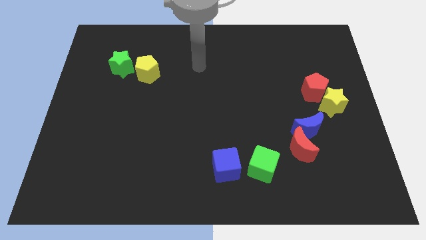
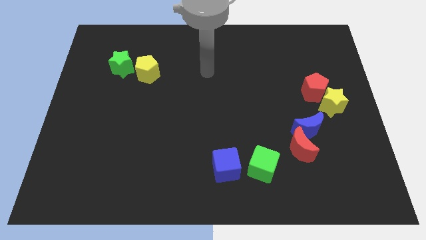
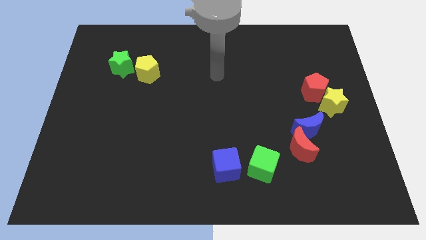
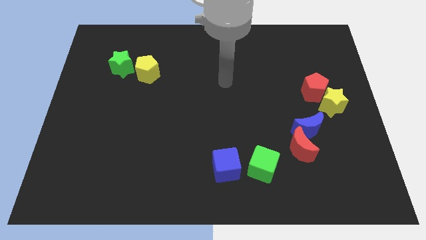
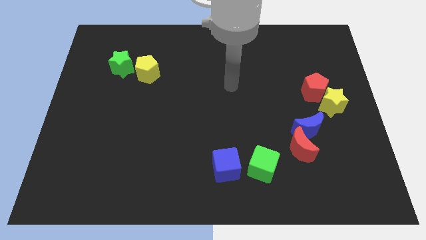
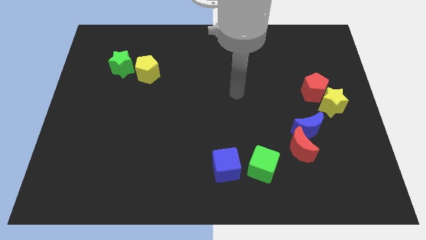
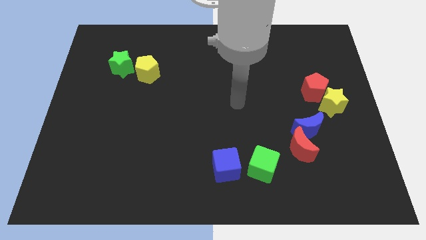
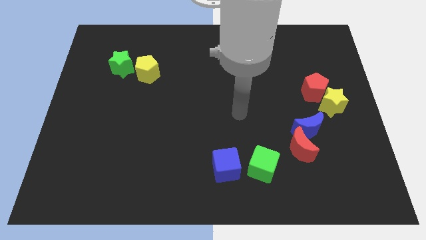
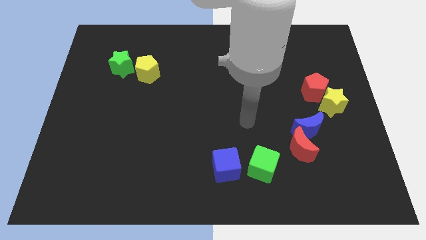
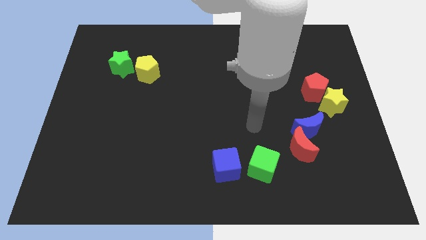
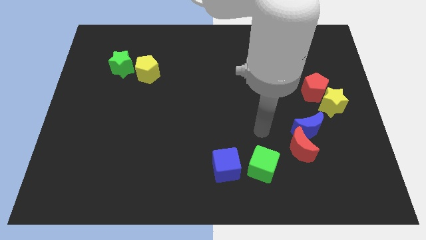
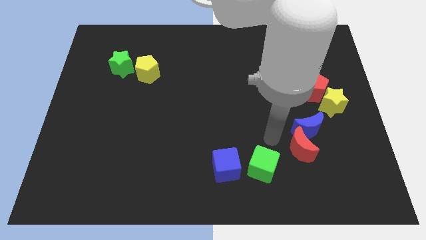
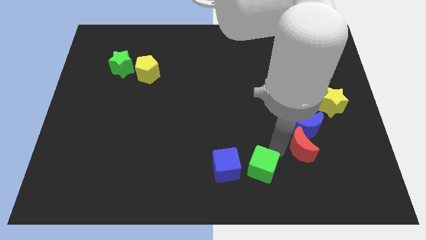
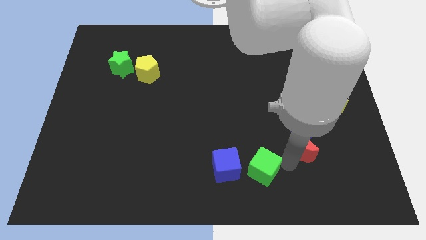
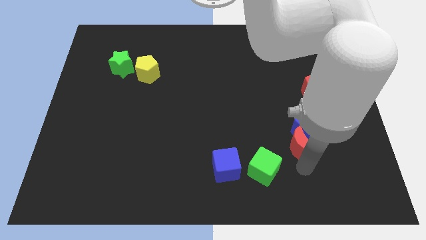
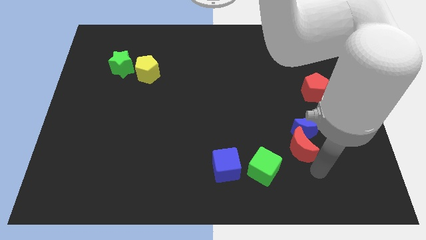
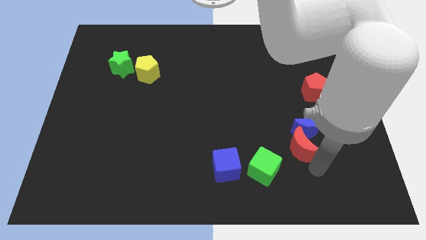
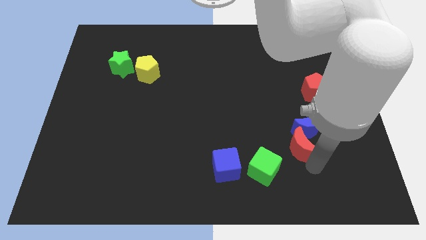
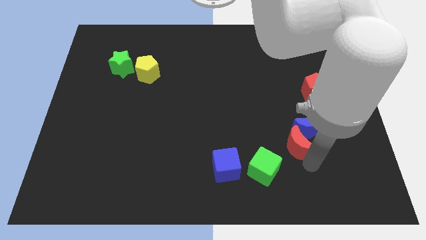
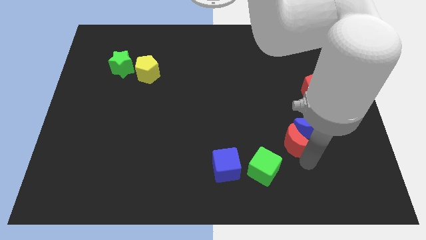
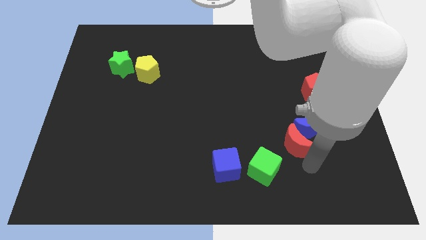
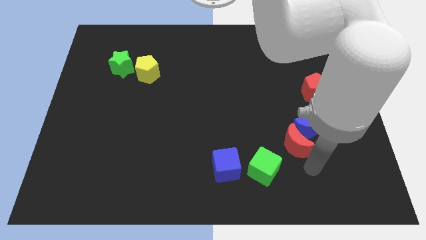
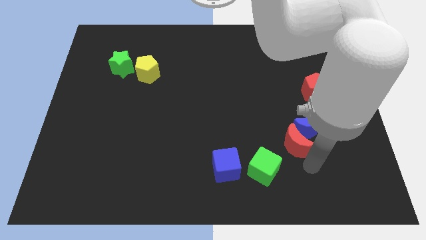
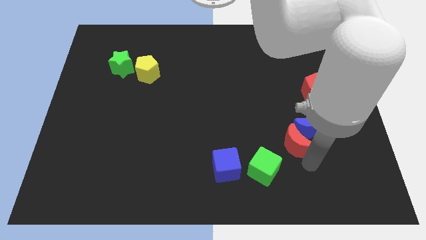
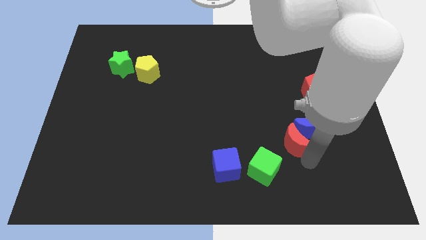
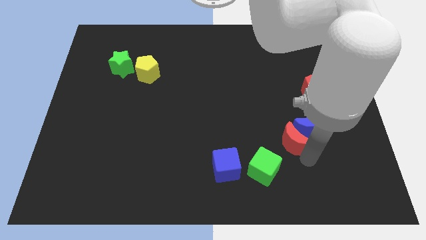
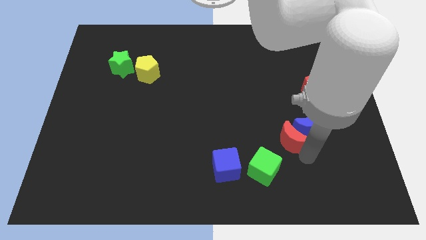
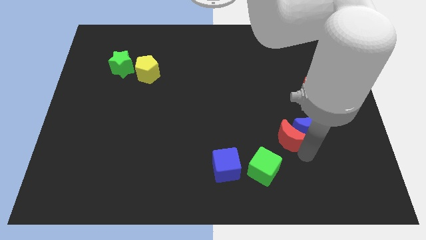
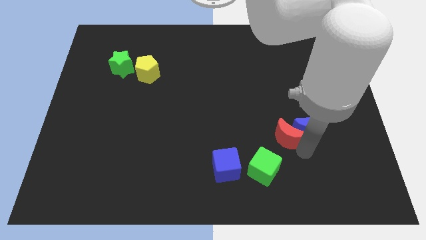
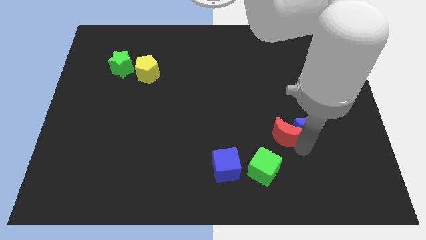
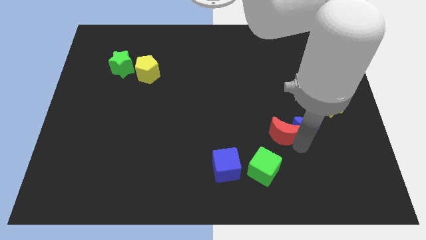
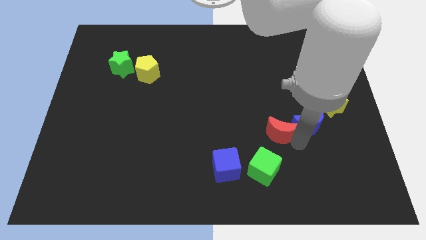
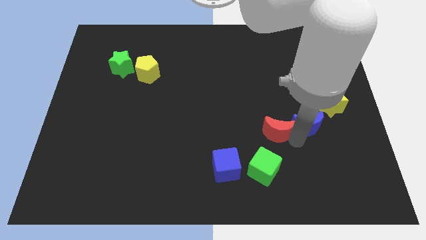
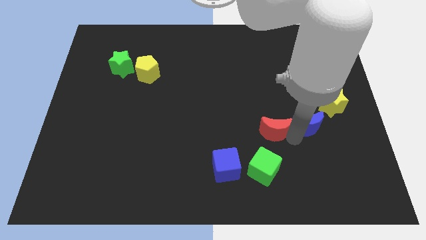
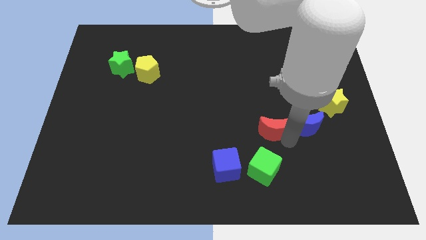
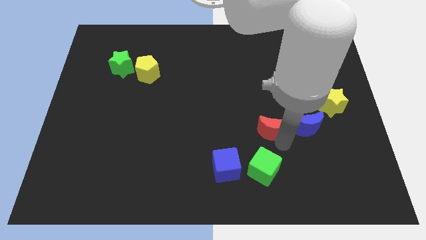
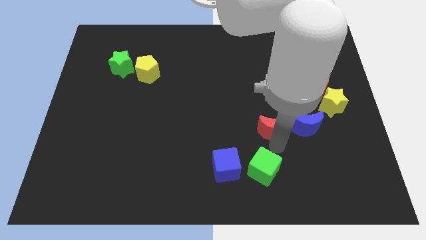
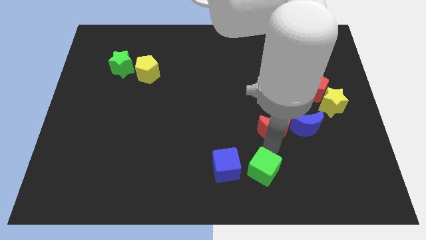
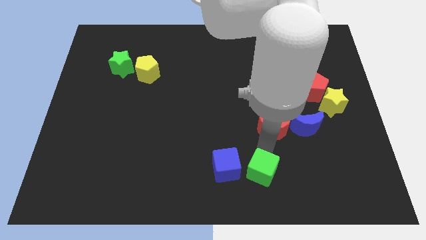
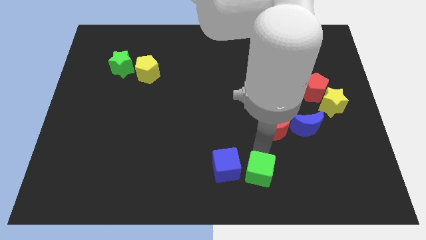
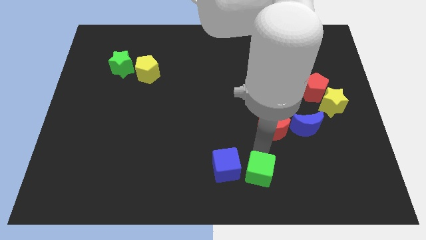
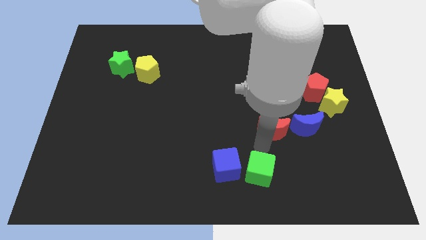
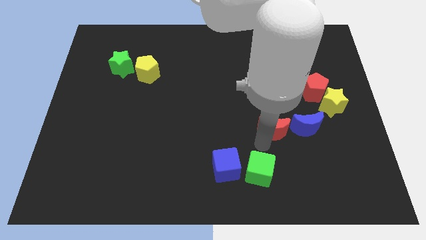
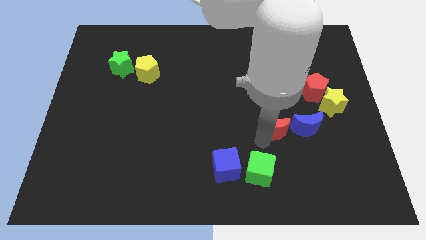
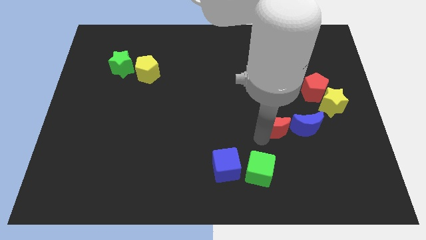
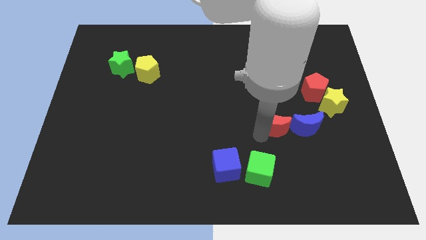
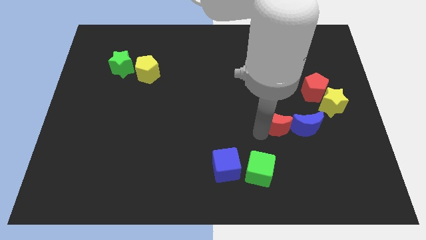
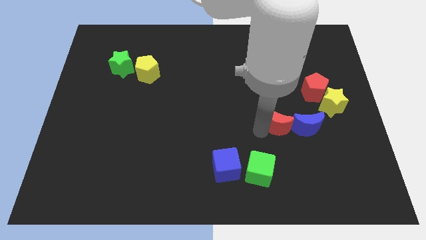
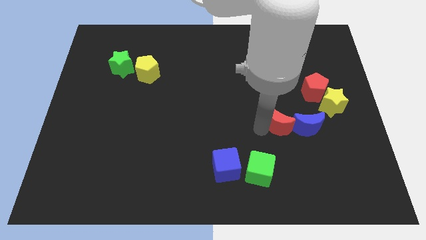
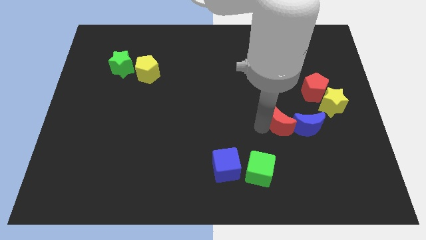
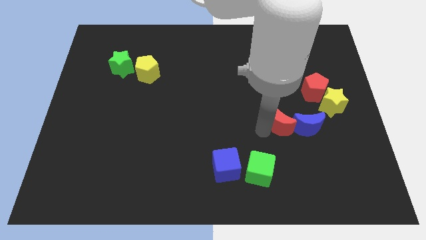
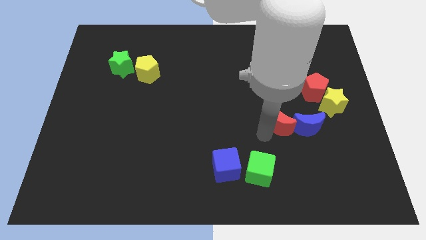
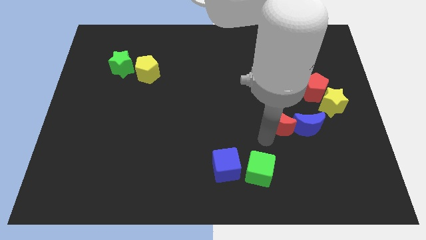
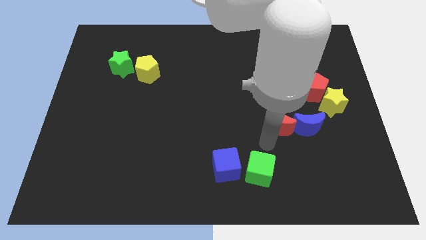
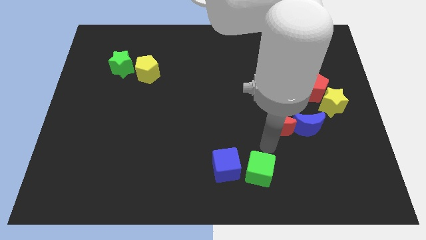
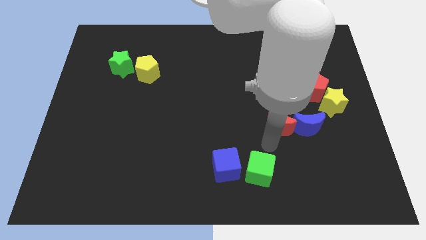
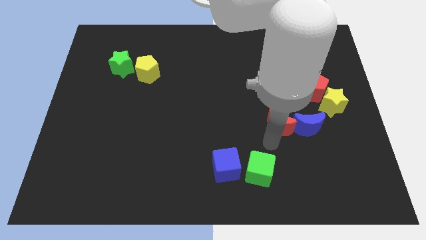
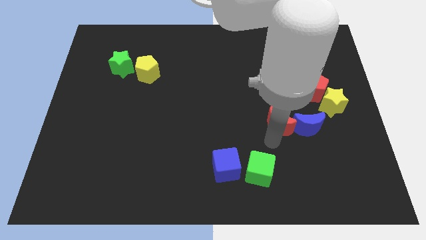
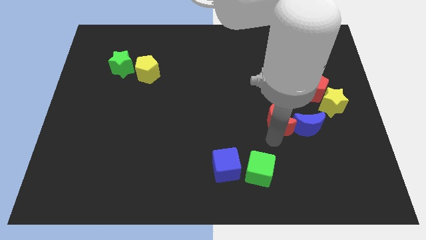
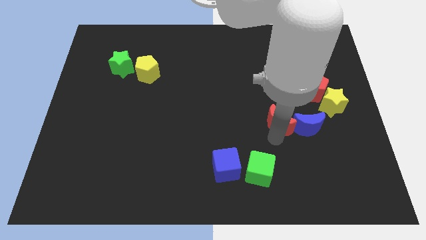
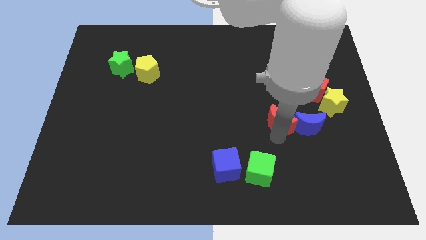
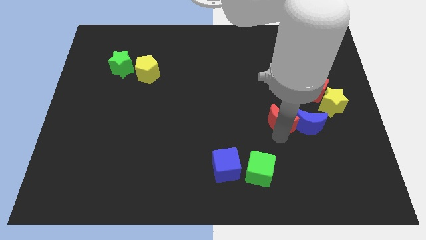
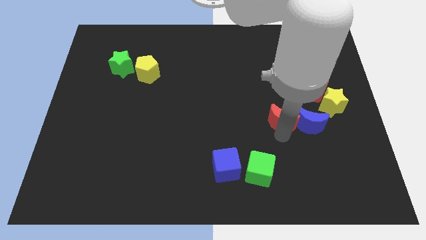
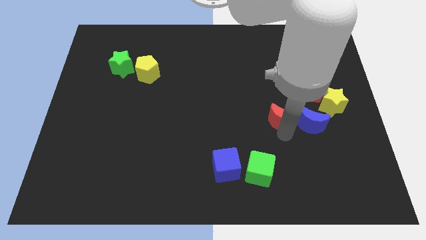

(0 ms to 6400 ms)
push the red moon up slightly

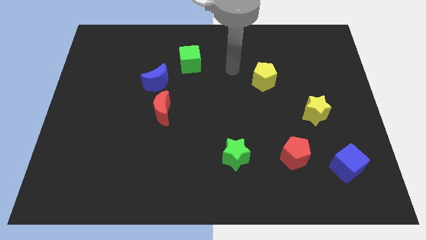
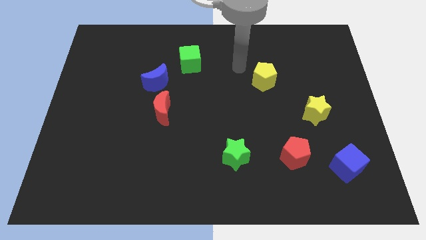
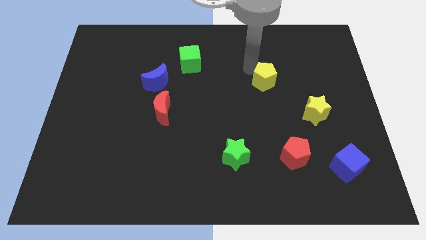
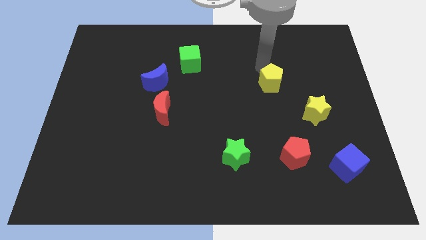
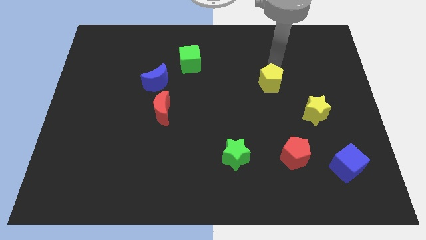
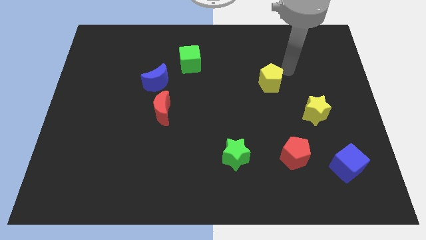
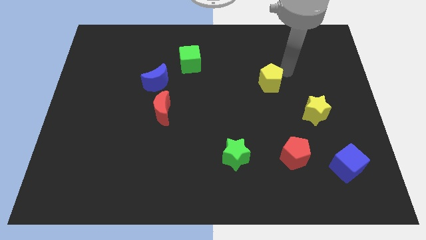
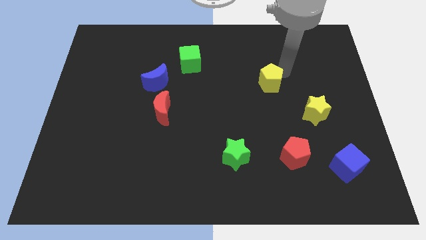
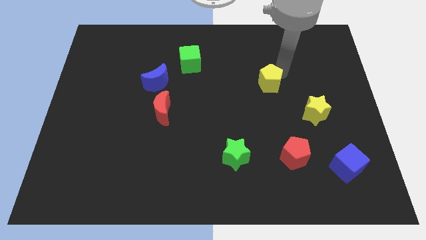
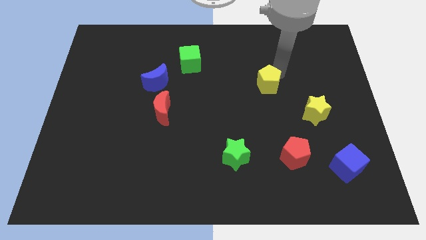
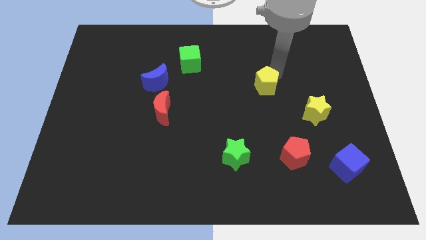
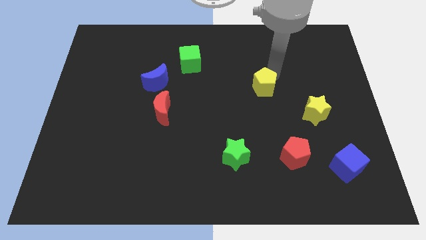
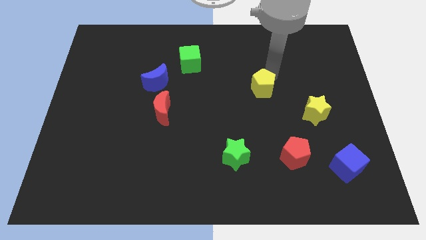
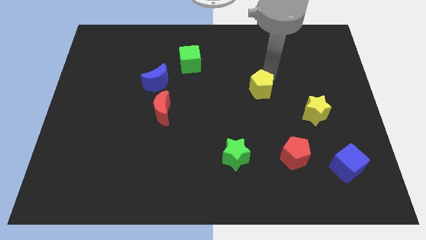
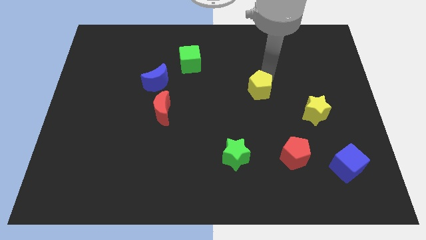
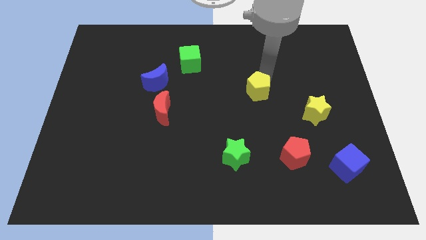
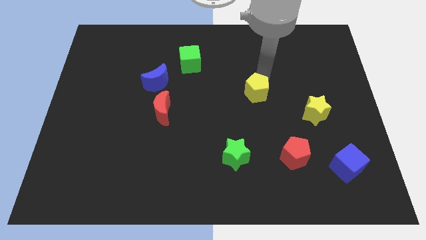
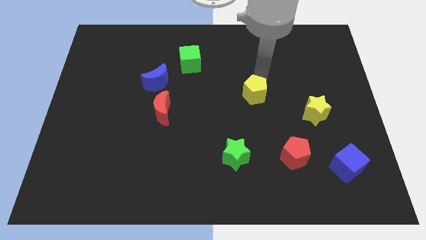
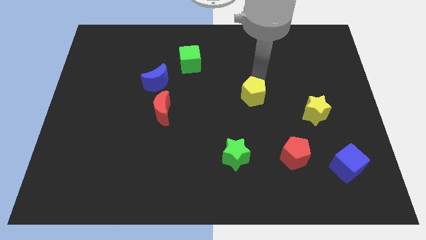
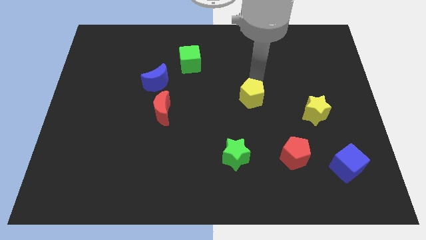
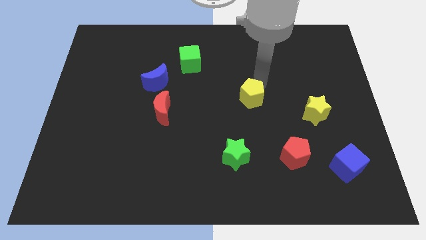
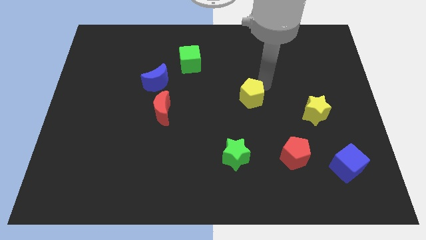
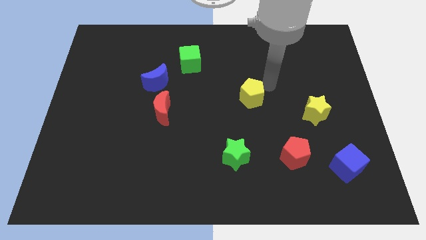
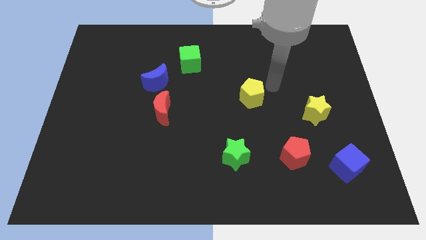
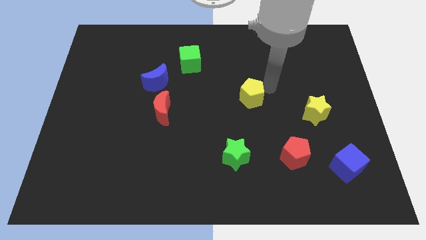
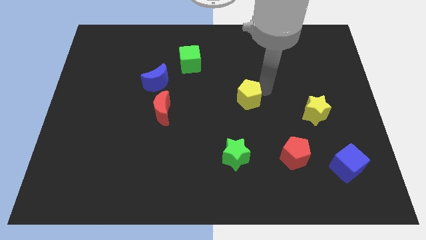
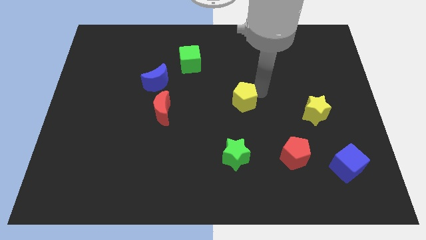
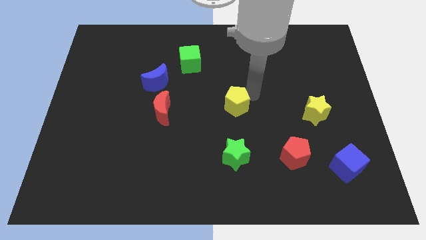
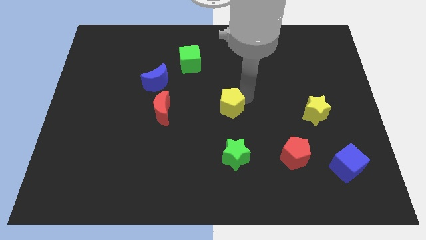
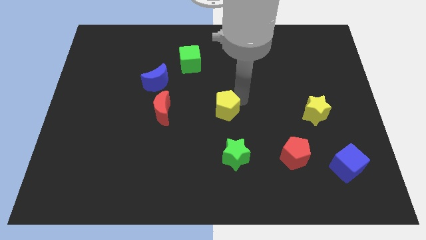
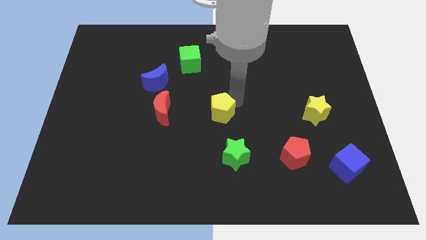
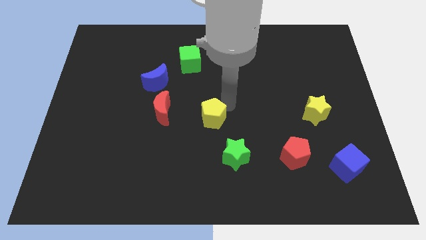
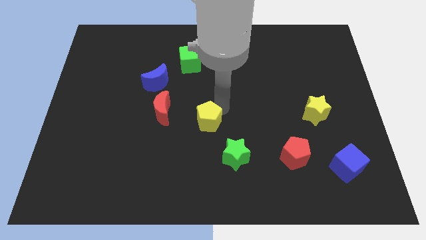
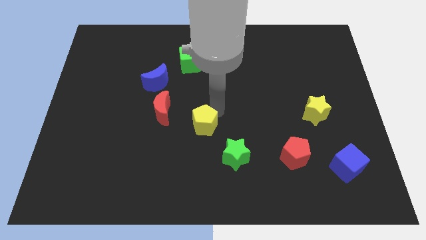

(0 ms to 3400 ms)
slide the yellow pentagon down and left diagonally
